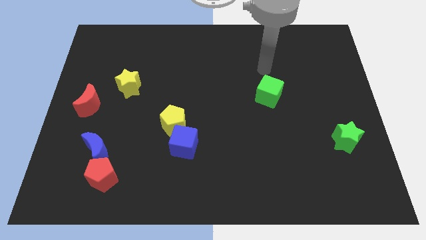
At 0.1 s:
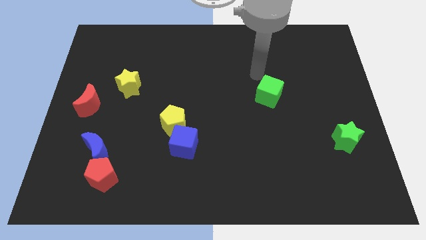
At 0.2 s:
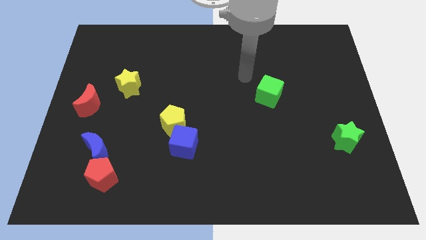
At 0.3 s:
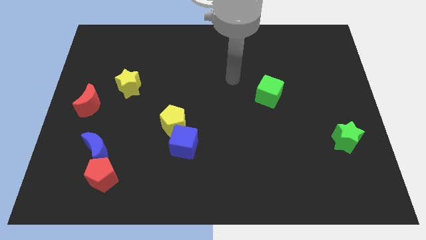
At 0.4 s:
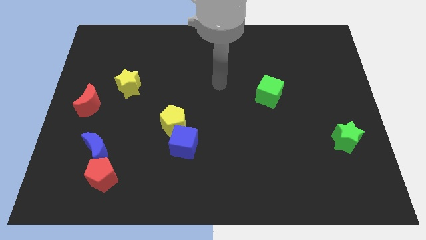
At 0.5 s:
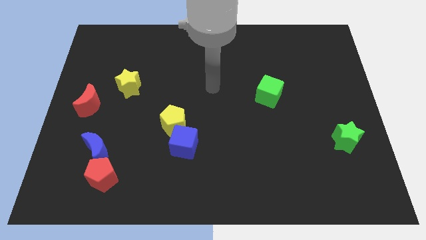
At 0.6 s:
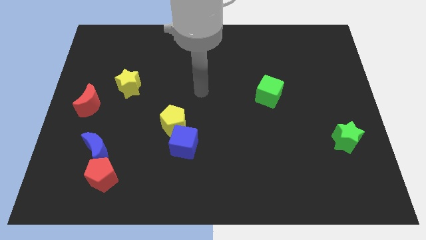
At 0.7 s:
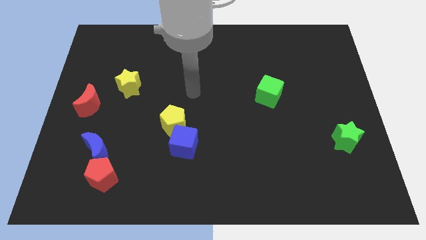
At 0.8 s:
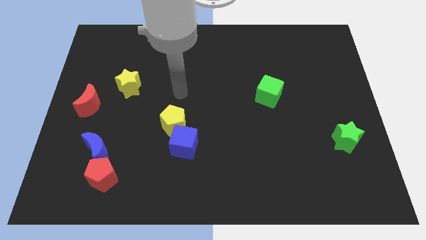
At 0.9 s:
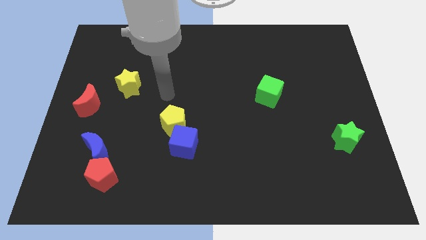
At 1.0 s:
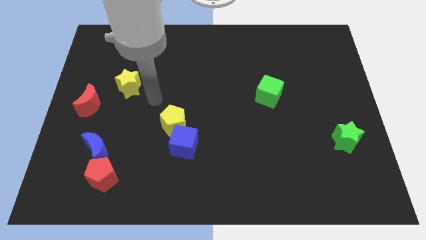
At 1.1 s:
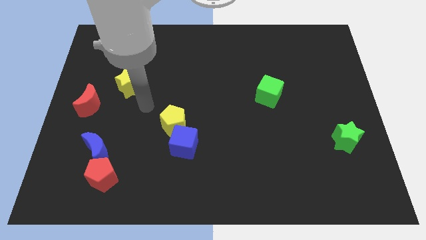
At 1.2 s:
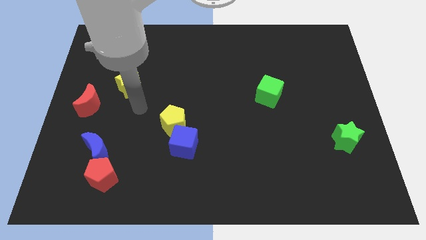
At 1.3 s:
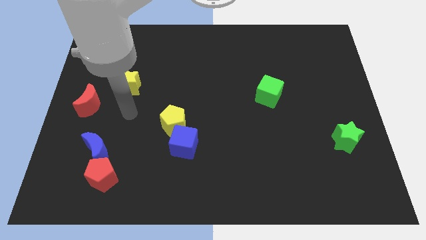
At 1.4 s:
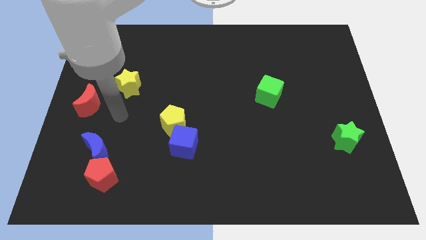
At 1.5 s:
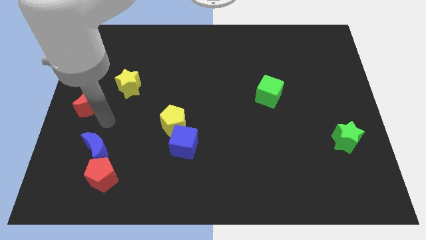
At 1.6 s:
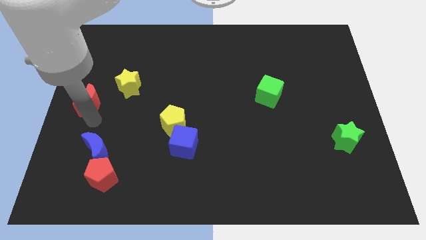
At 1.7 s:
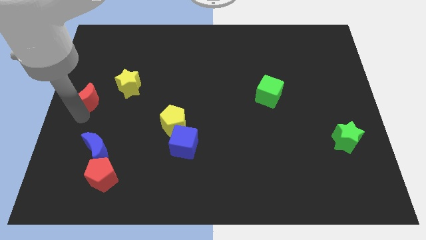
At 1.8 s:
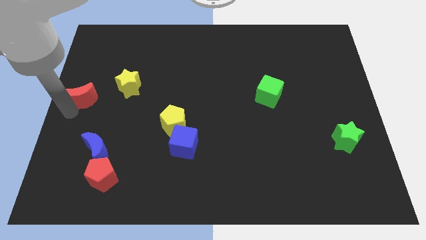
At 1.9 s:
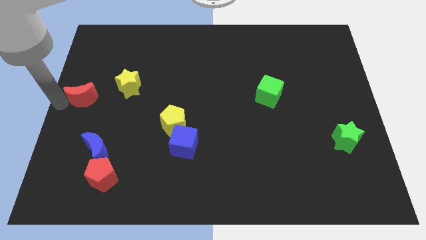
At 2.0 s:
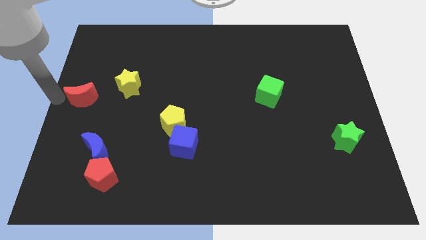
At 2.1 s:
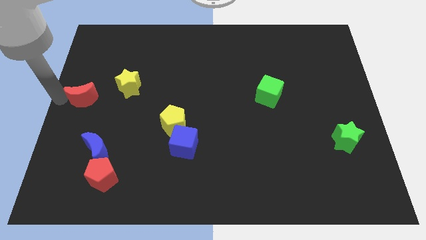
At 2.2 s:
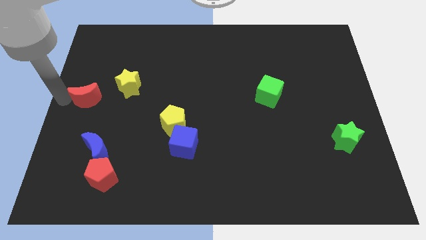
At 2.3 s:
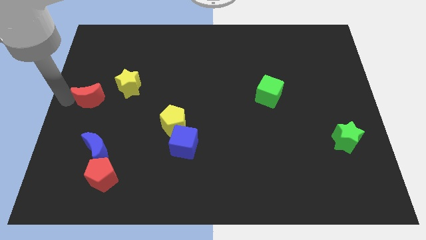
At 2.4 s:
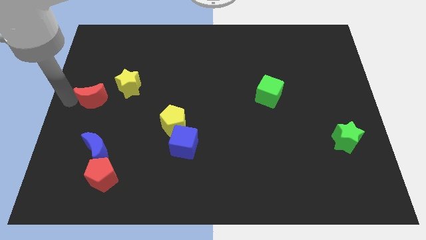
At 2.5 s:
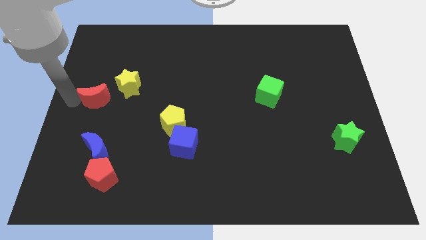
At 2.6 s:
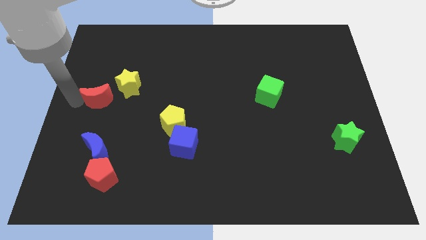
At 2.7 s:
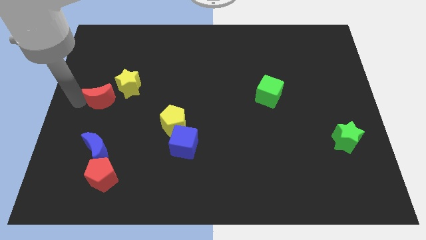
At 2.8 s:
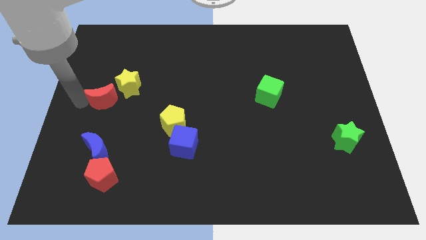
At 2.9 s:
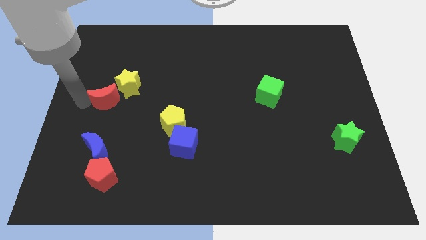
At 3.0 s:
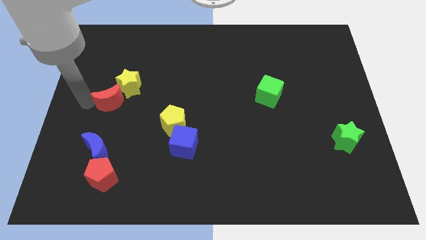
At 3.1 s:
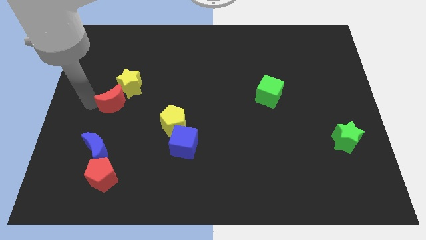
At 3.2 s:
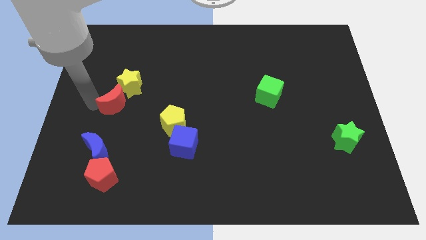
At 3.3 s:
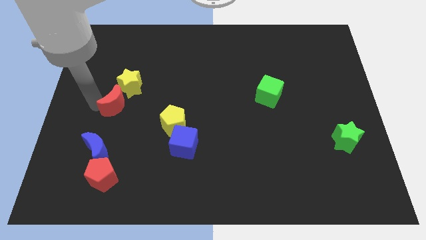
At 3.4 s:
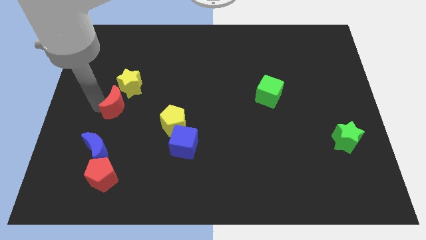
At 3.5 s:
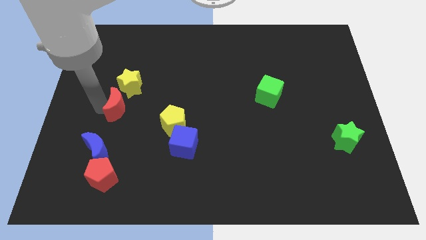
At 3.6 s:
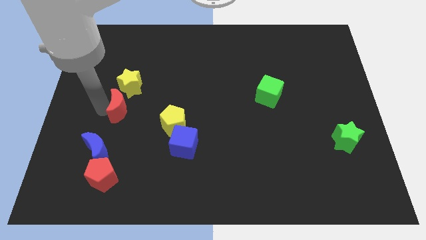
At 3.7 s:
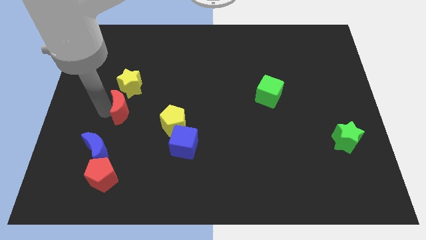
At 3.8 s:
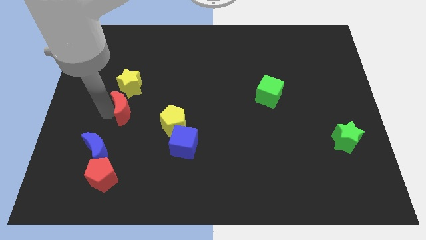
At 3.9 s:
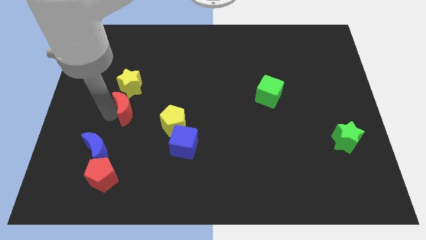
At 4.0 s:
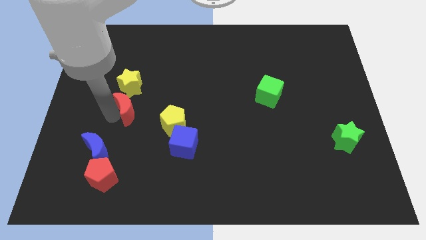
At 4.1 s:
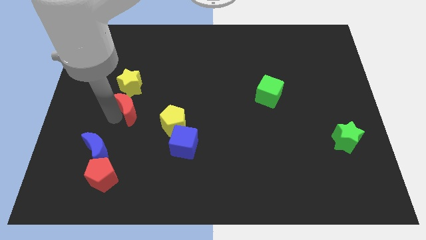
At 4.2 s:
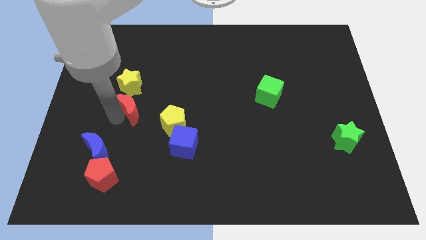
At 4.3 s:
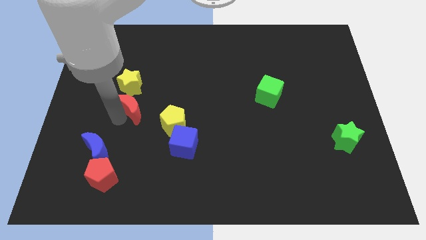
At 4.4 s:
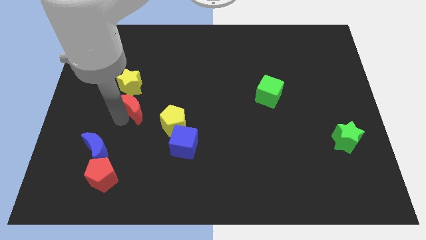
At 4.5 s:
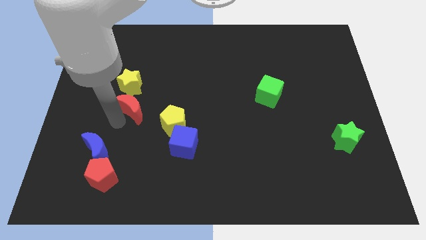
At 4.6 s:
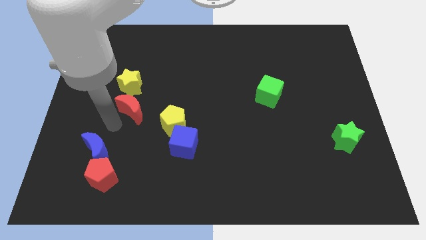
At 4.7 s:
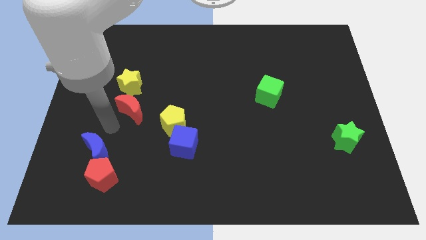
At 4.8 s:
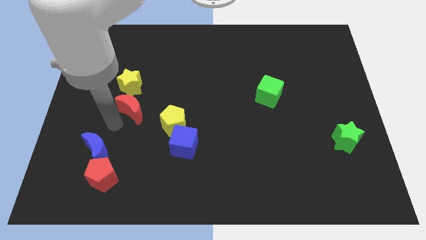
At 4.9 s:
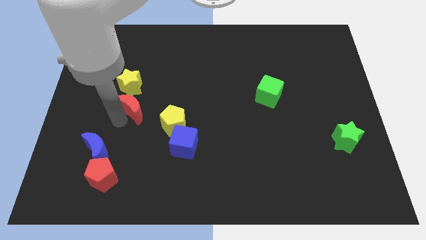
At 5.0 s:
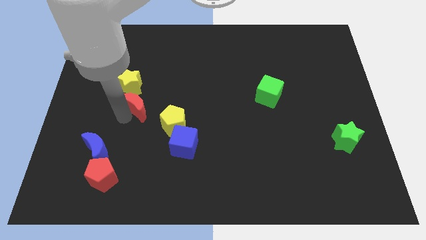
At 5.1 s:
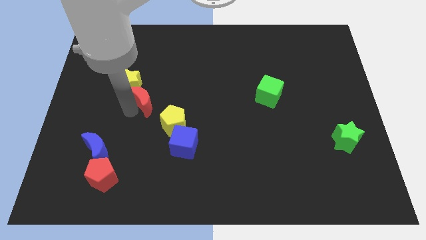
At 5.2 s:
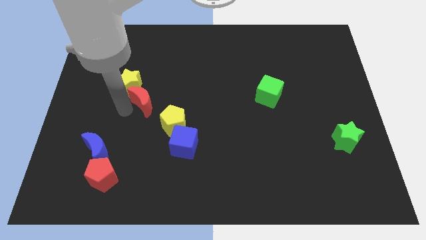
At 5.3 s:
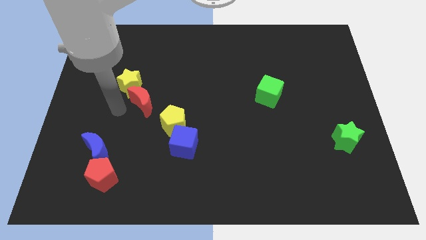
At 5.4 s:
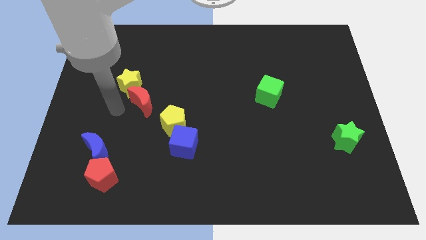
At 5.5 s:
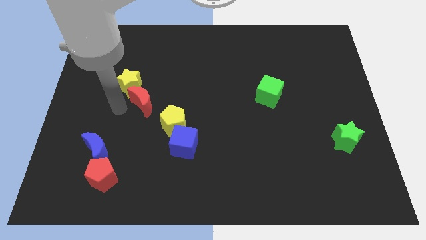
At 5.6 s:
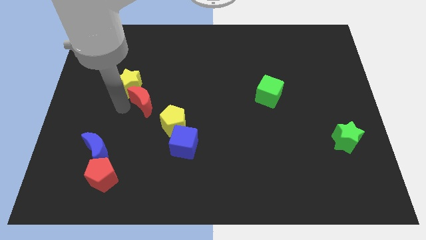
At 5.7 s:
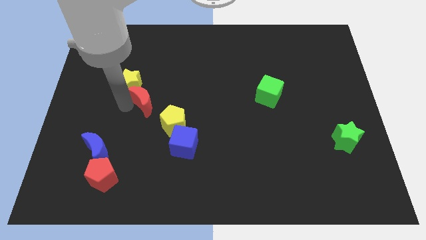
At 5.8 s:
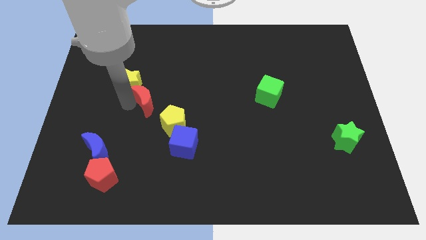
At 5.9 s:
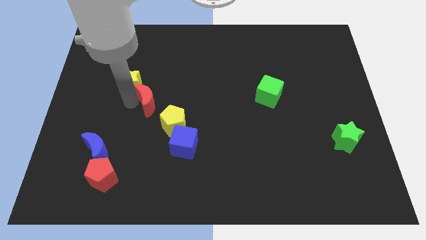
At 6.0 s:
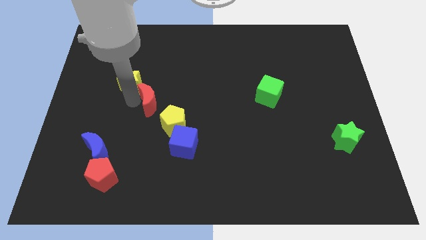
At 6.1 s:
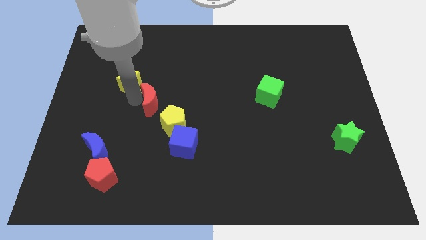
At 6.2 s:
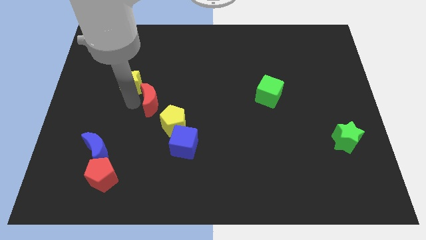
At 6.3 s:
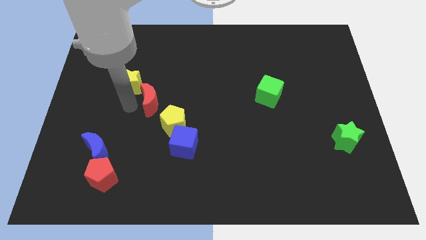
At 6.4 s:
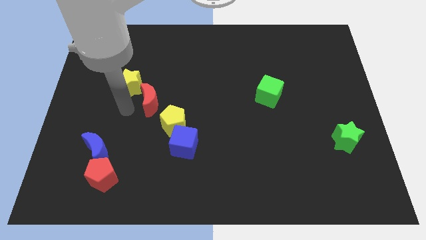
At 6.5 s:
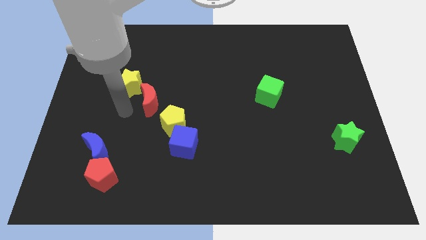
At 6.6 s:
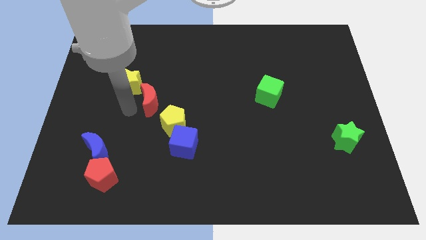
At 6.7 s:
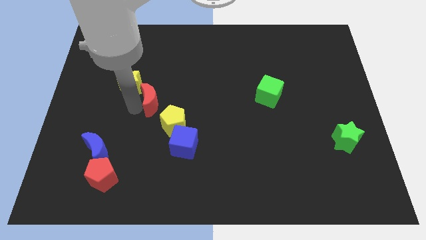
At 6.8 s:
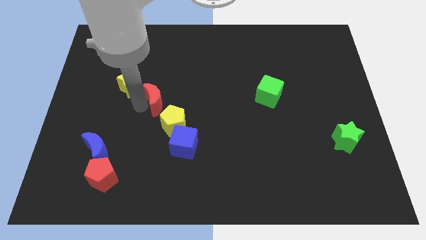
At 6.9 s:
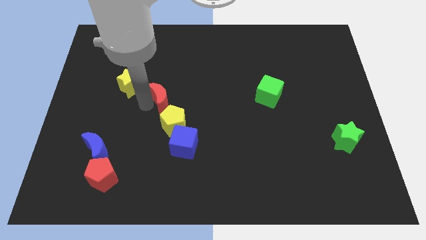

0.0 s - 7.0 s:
push the red moon to the center of the board
